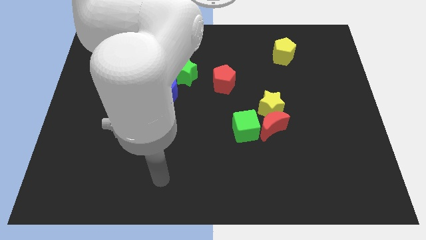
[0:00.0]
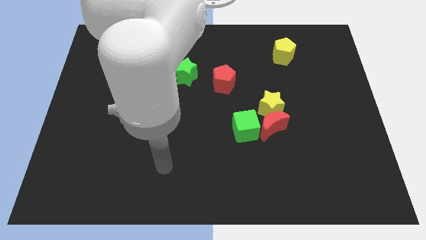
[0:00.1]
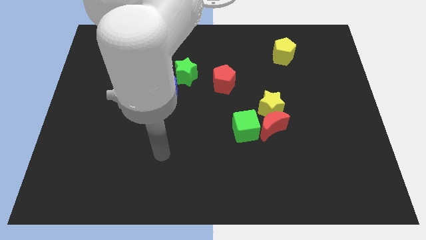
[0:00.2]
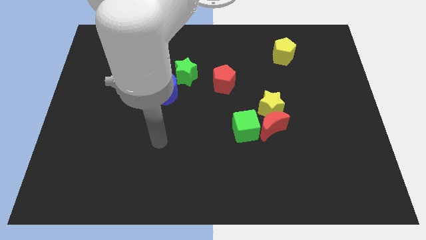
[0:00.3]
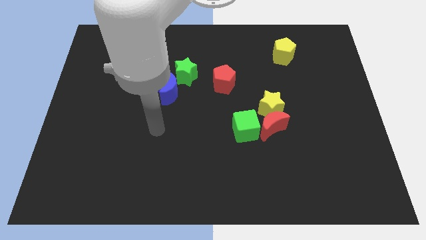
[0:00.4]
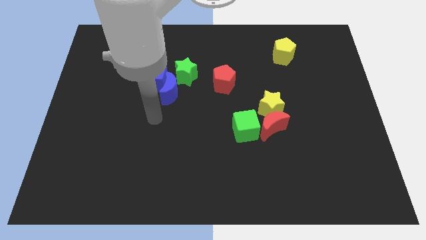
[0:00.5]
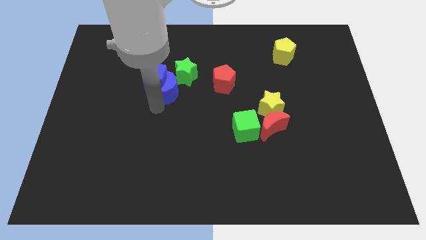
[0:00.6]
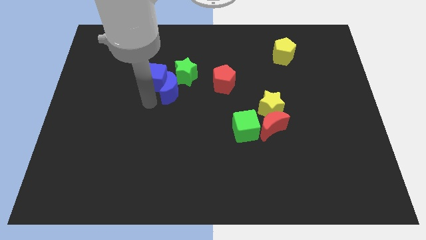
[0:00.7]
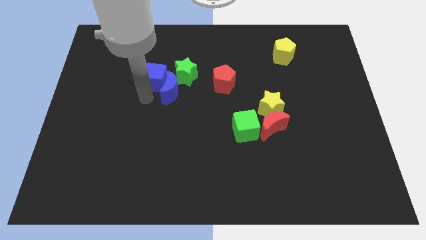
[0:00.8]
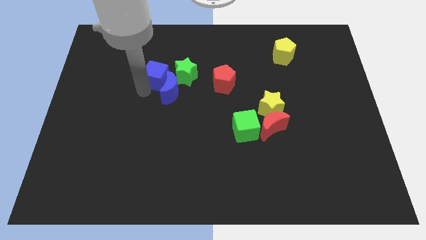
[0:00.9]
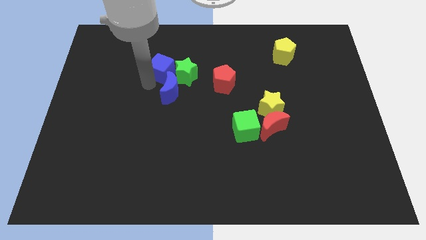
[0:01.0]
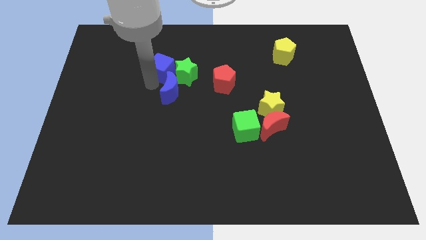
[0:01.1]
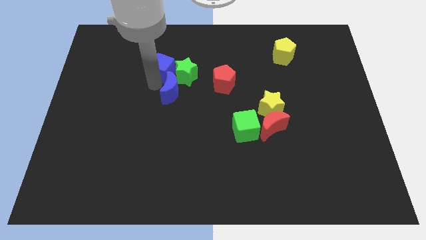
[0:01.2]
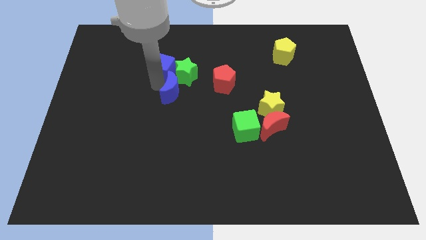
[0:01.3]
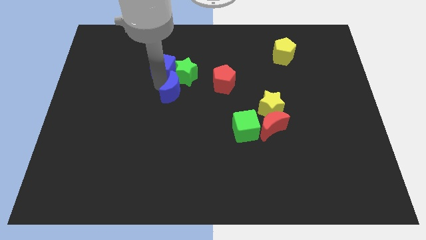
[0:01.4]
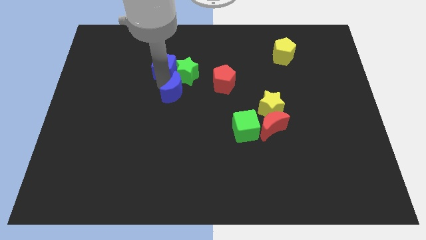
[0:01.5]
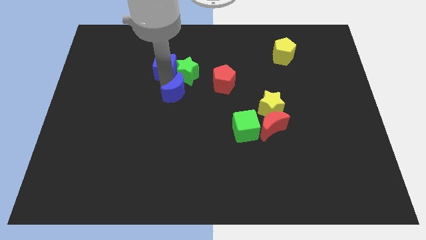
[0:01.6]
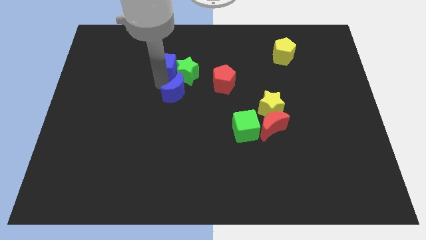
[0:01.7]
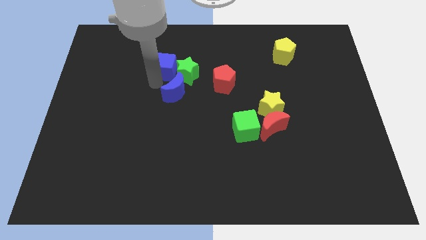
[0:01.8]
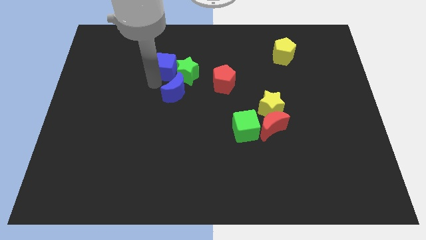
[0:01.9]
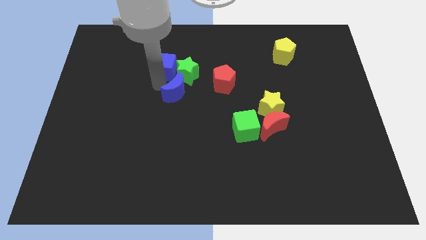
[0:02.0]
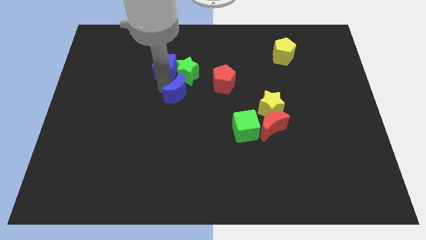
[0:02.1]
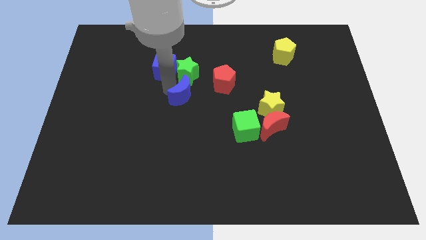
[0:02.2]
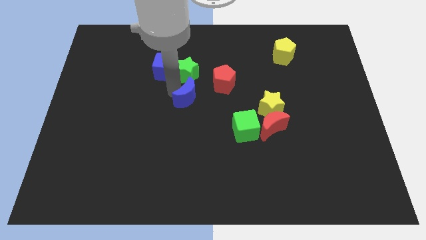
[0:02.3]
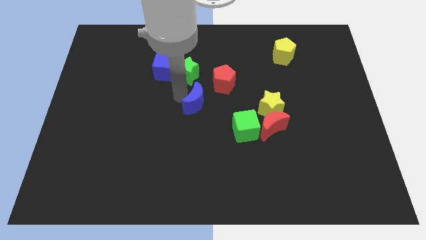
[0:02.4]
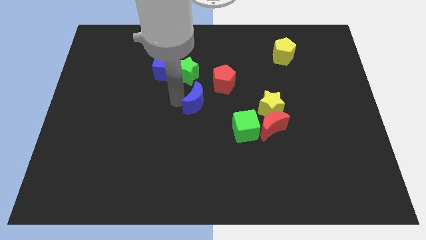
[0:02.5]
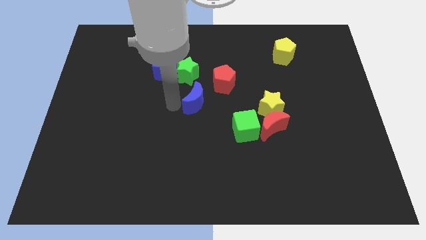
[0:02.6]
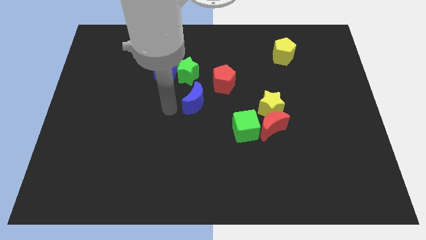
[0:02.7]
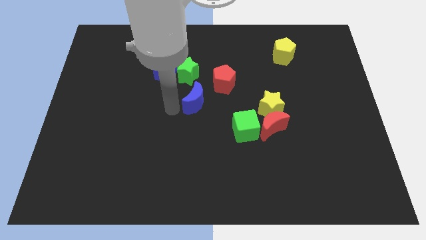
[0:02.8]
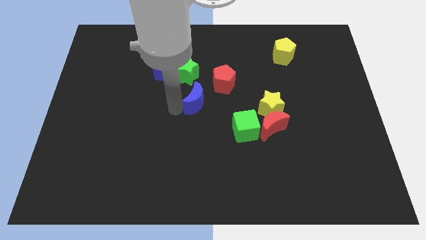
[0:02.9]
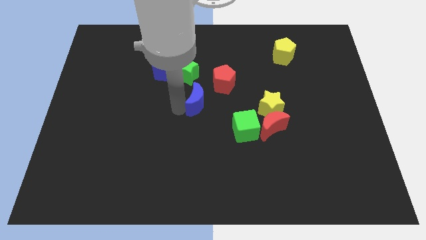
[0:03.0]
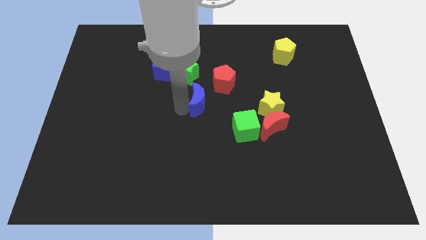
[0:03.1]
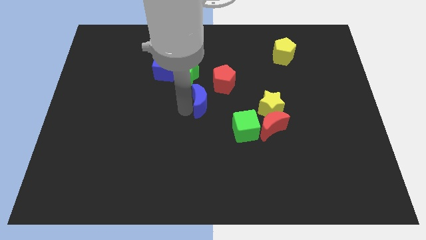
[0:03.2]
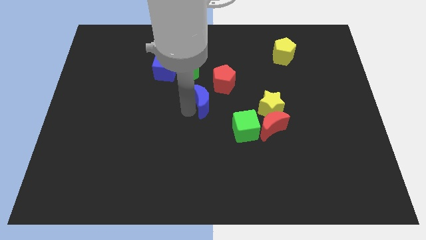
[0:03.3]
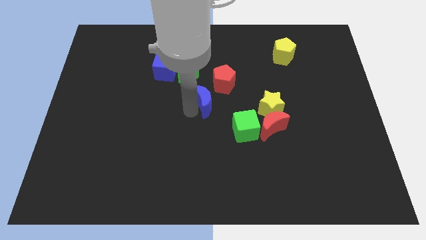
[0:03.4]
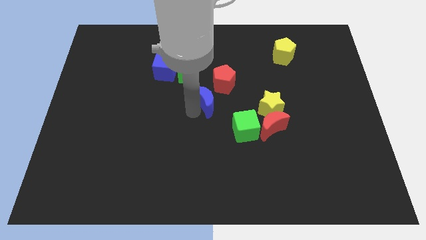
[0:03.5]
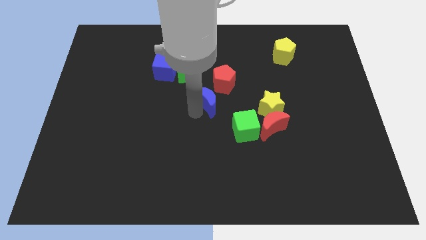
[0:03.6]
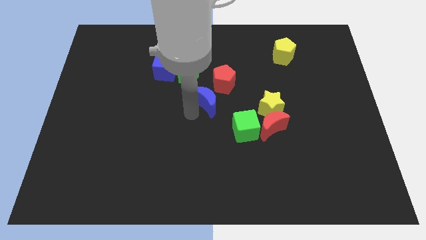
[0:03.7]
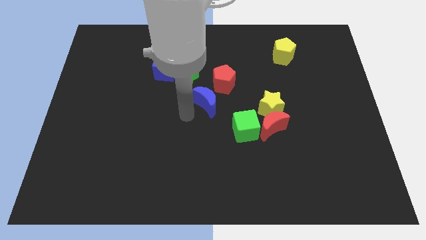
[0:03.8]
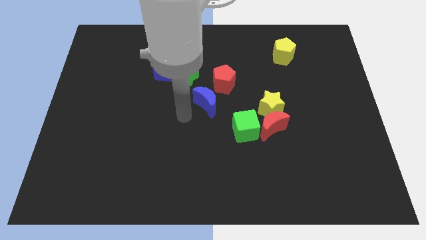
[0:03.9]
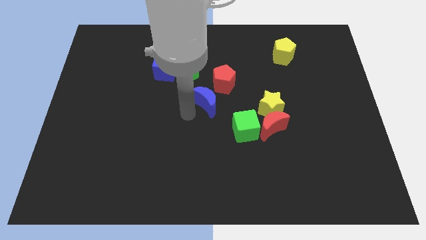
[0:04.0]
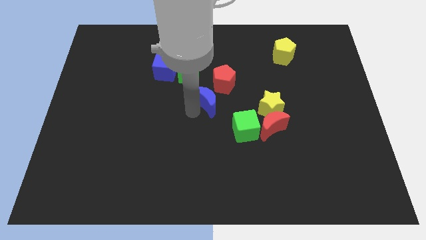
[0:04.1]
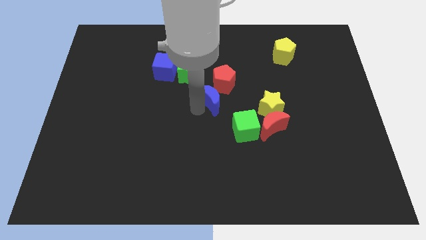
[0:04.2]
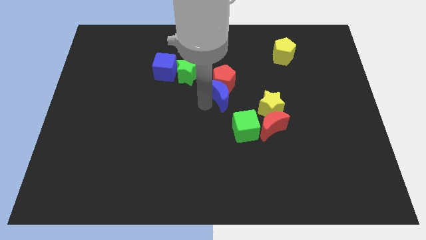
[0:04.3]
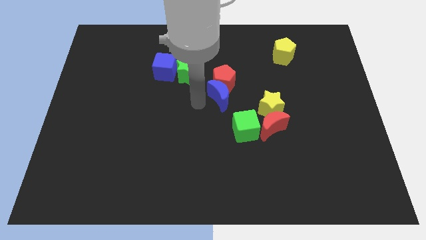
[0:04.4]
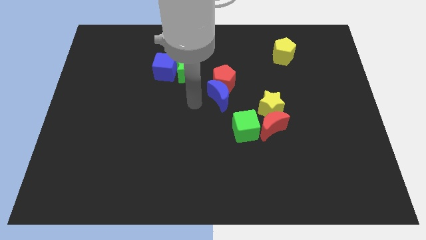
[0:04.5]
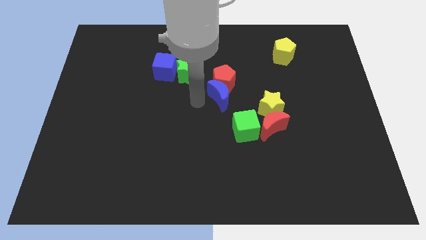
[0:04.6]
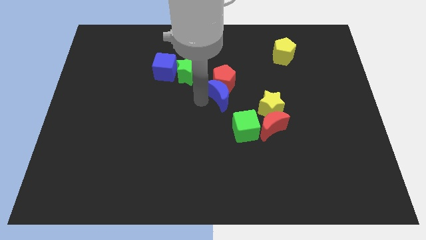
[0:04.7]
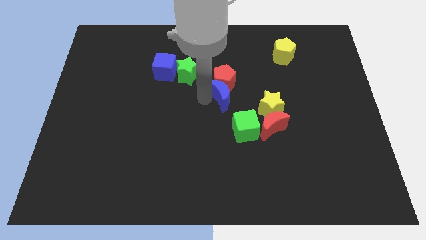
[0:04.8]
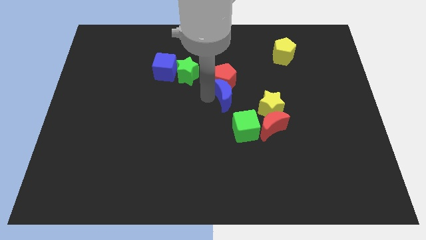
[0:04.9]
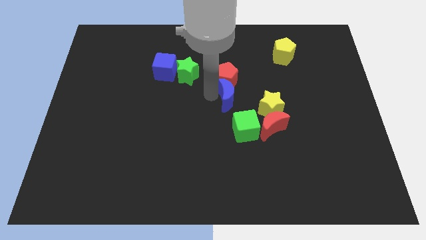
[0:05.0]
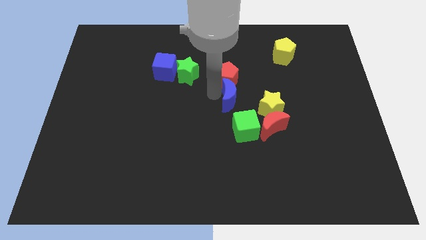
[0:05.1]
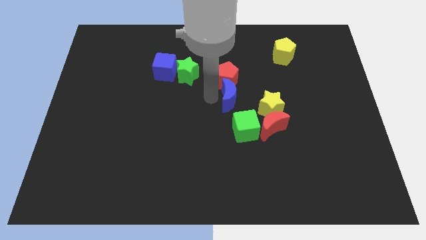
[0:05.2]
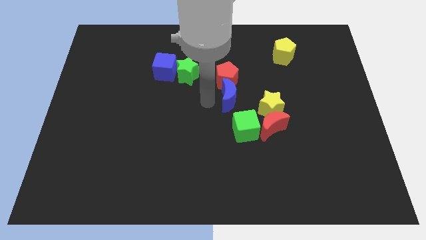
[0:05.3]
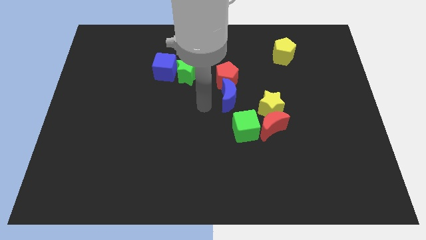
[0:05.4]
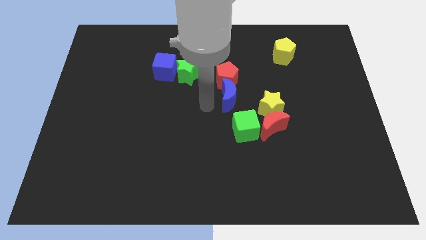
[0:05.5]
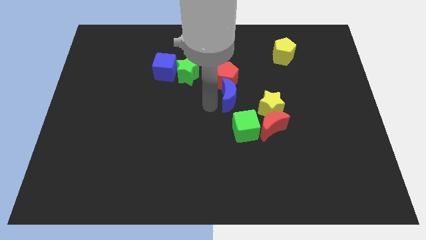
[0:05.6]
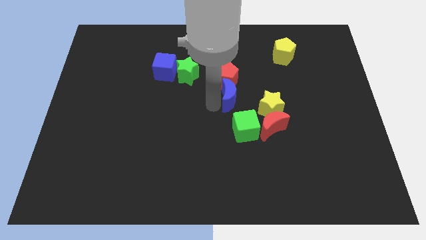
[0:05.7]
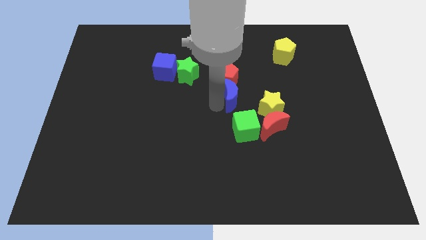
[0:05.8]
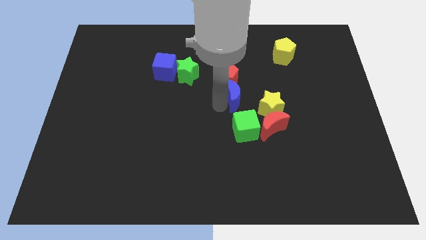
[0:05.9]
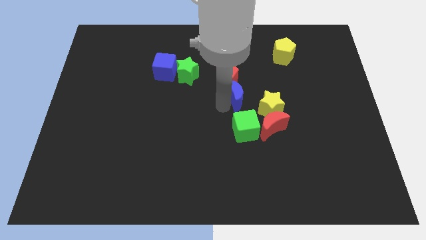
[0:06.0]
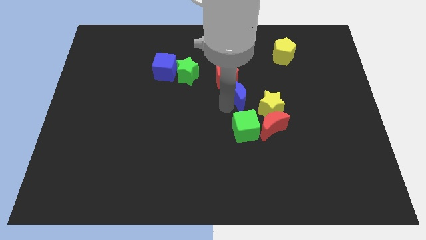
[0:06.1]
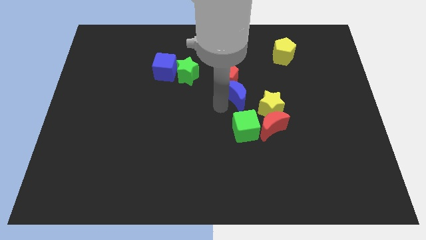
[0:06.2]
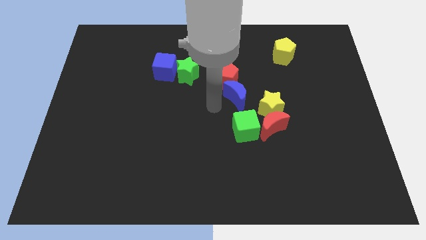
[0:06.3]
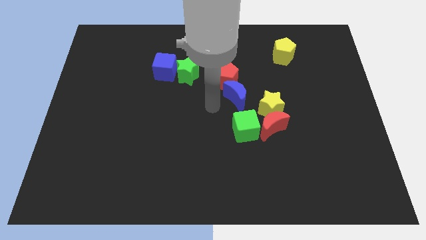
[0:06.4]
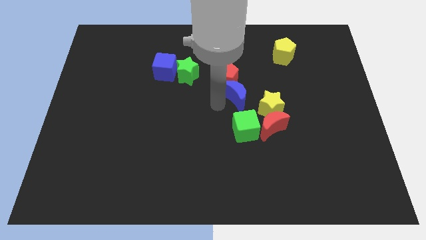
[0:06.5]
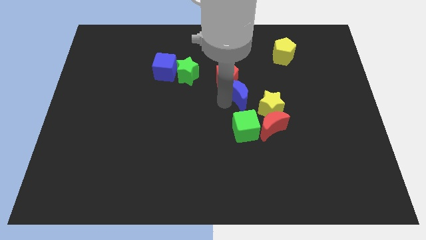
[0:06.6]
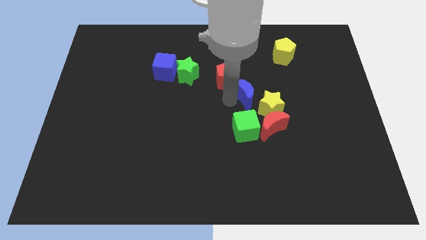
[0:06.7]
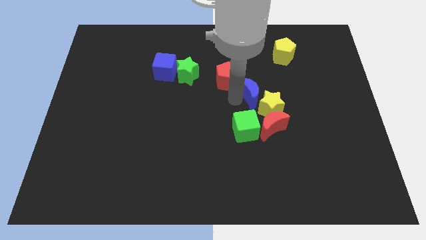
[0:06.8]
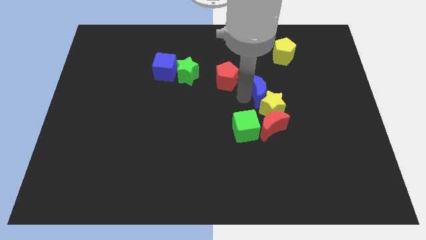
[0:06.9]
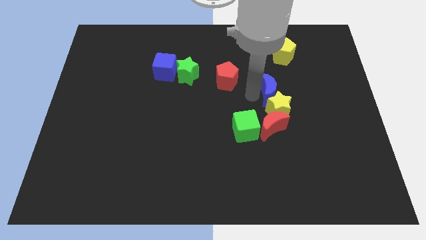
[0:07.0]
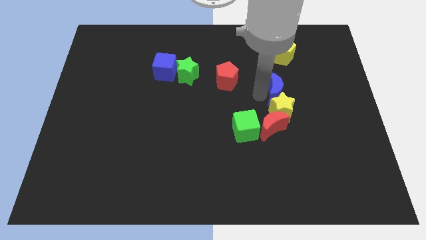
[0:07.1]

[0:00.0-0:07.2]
put the blue moon below the yellow pentagon
